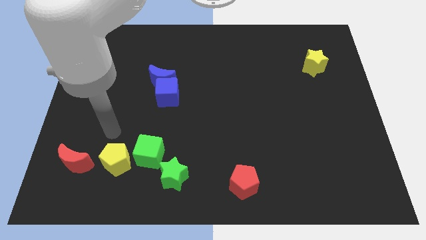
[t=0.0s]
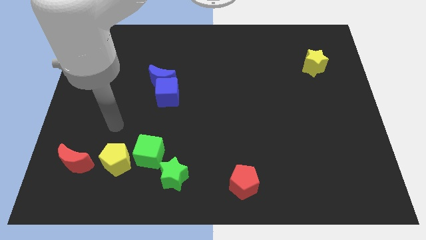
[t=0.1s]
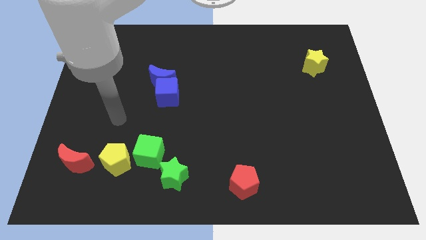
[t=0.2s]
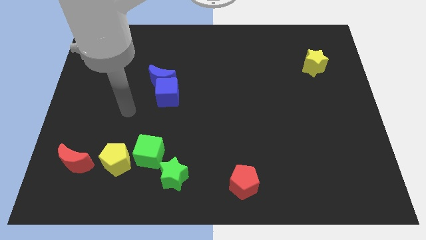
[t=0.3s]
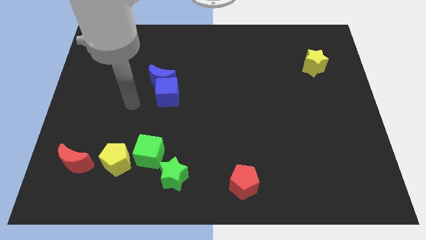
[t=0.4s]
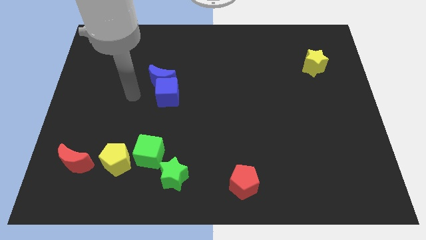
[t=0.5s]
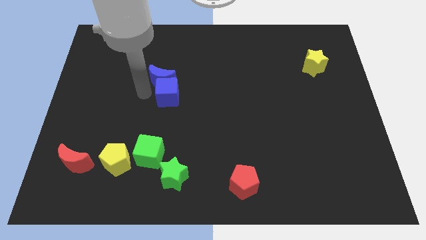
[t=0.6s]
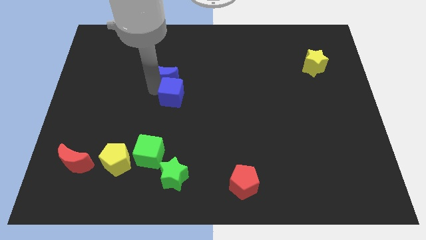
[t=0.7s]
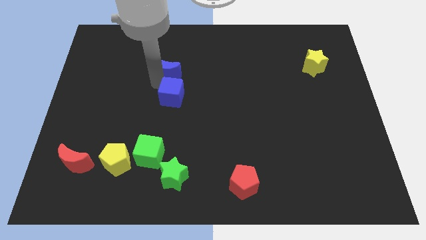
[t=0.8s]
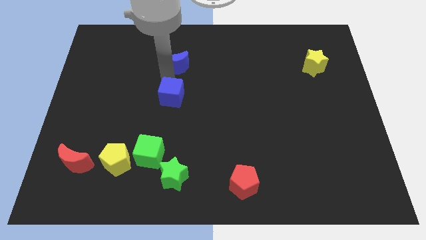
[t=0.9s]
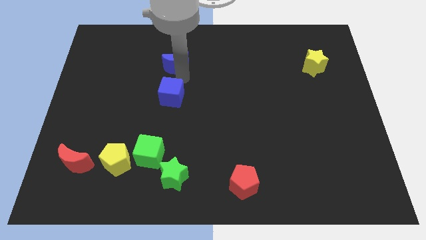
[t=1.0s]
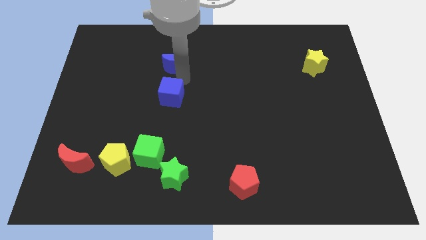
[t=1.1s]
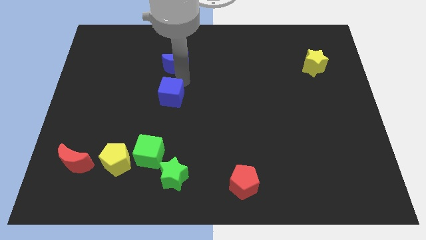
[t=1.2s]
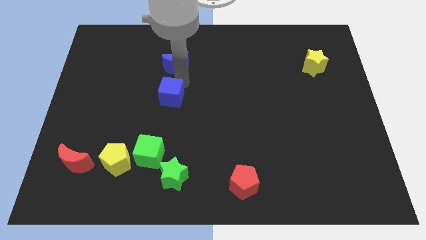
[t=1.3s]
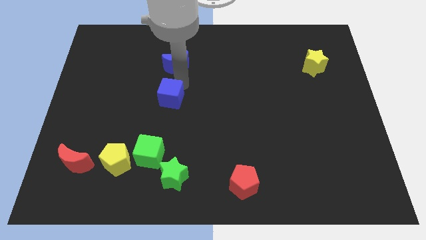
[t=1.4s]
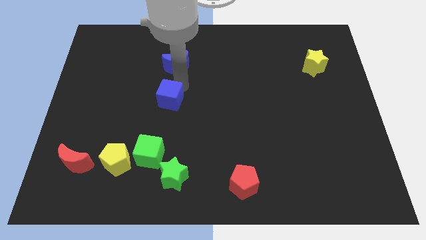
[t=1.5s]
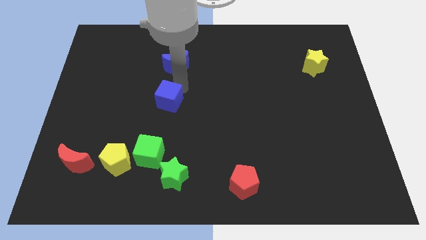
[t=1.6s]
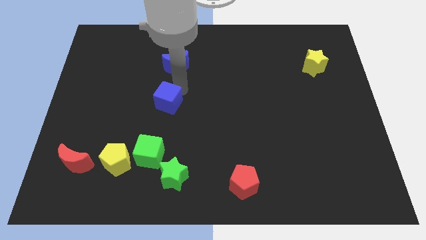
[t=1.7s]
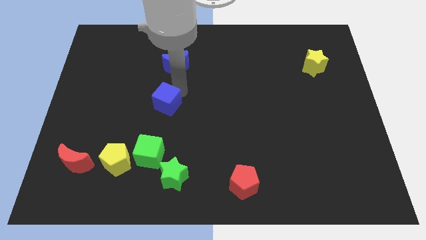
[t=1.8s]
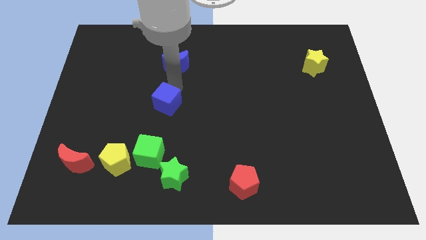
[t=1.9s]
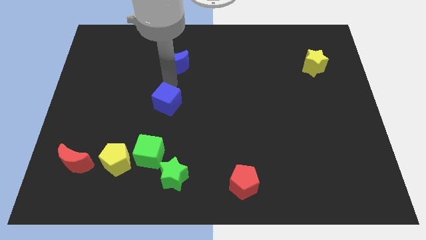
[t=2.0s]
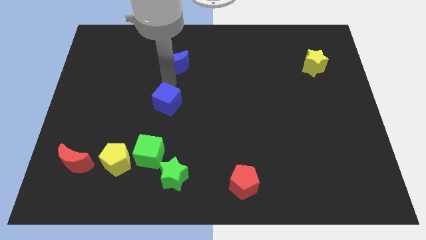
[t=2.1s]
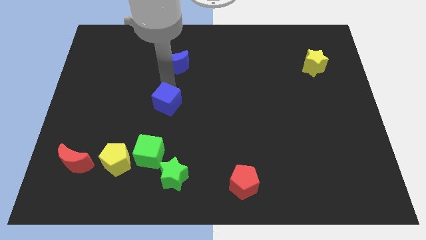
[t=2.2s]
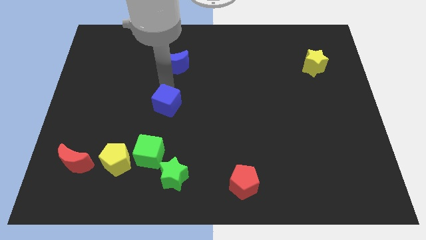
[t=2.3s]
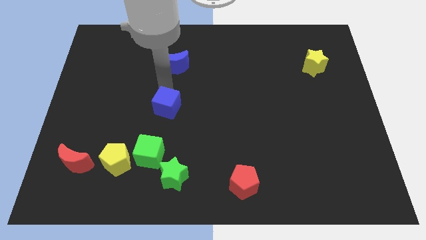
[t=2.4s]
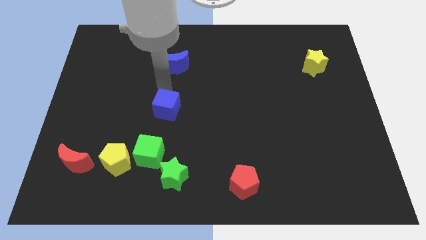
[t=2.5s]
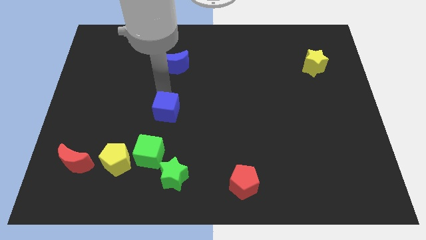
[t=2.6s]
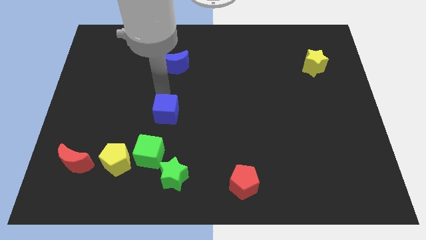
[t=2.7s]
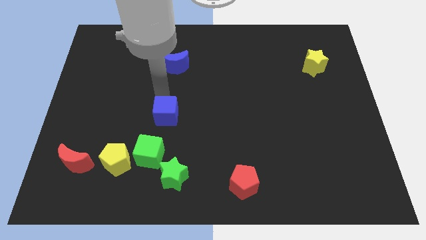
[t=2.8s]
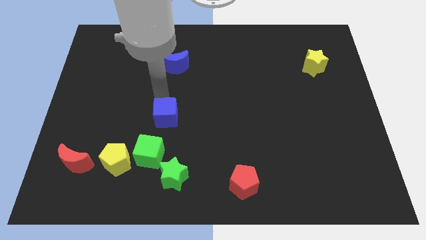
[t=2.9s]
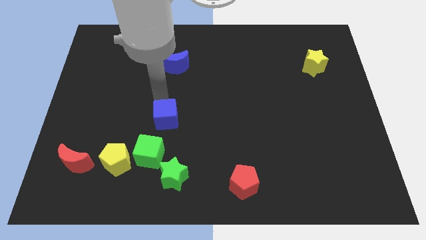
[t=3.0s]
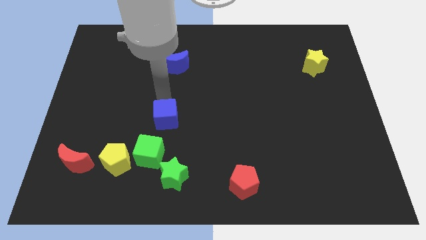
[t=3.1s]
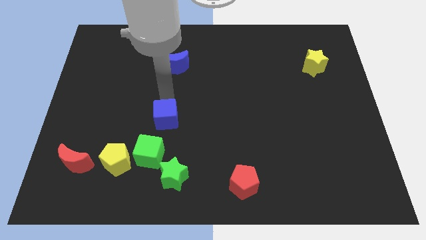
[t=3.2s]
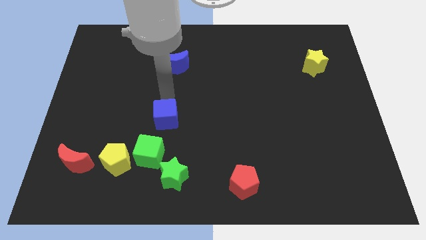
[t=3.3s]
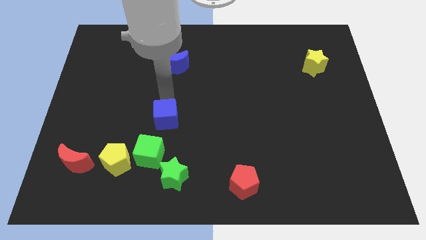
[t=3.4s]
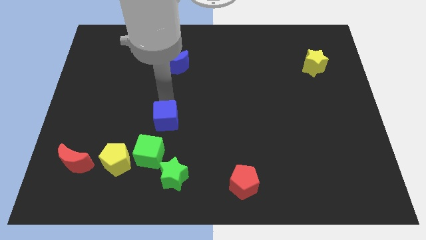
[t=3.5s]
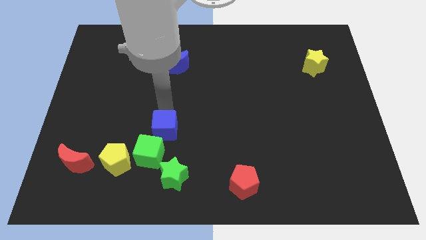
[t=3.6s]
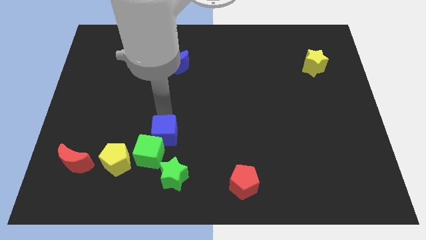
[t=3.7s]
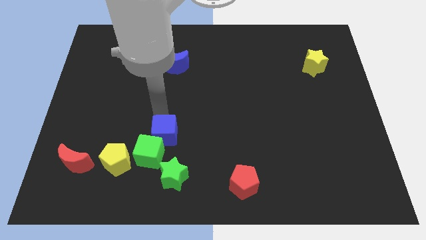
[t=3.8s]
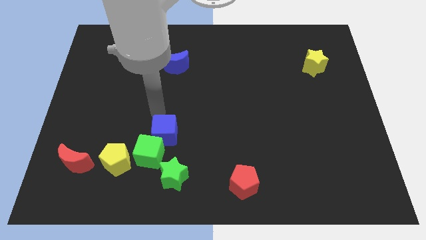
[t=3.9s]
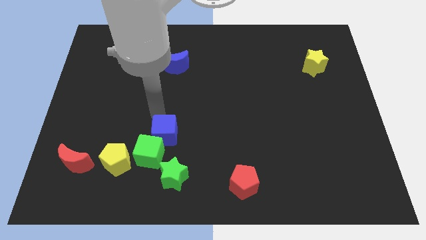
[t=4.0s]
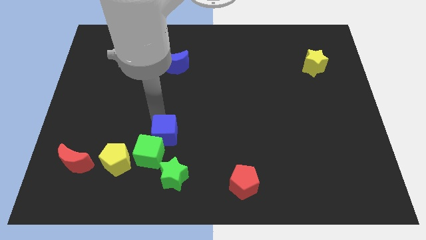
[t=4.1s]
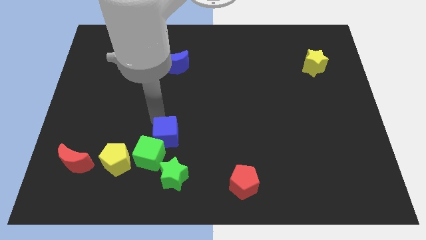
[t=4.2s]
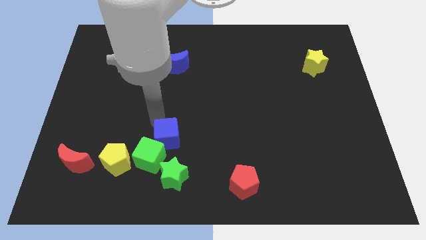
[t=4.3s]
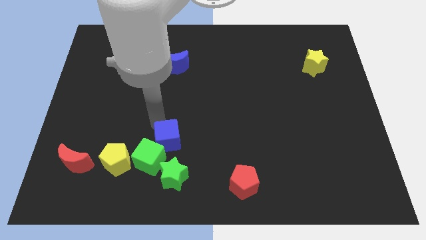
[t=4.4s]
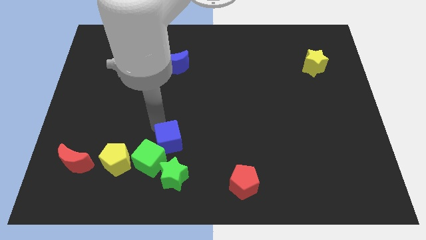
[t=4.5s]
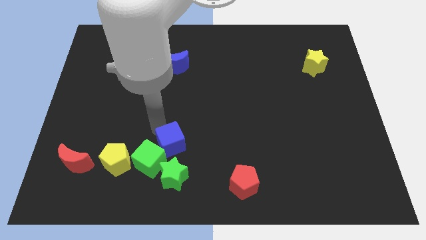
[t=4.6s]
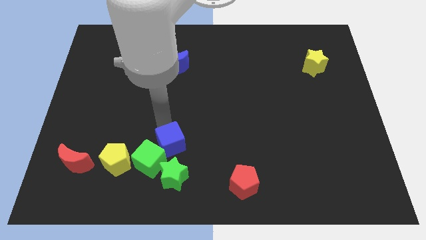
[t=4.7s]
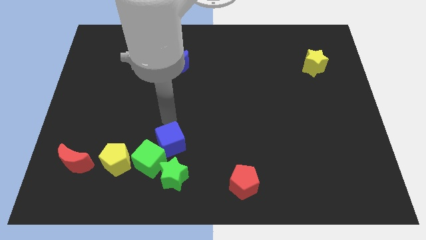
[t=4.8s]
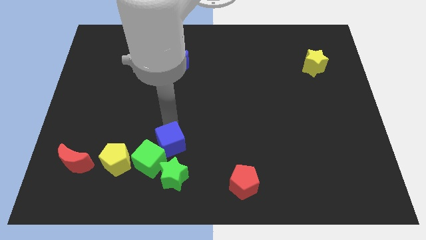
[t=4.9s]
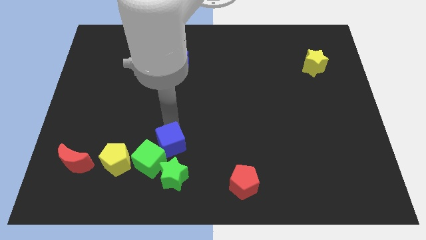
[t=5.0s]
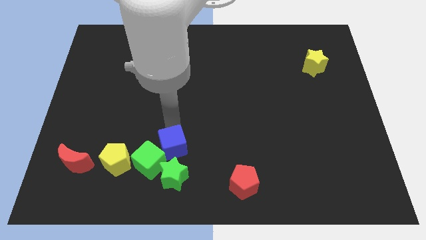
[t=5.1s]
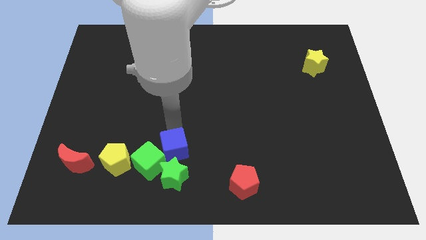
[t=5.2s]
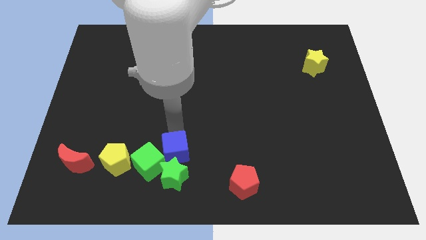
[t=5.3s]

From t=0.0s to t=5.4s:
put the blue cube towards the green star

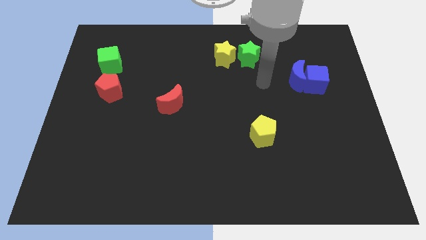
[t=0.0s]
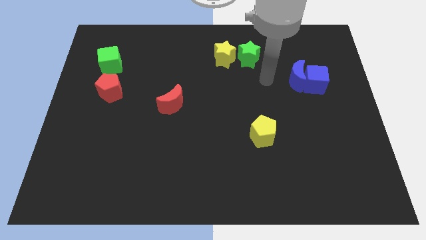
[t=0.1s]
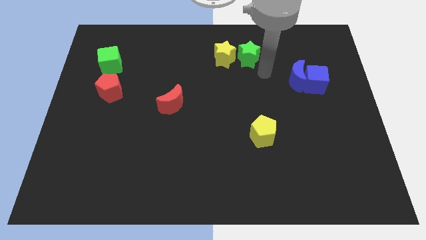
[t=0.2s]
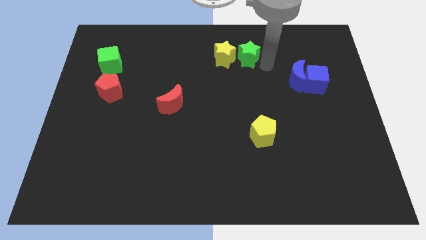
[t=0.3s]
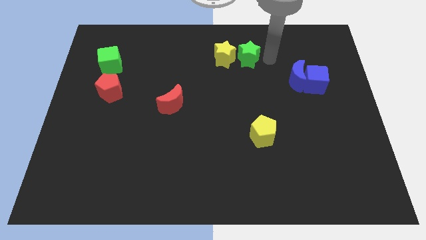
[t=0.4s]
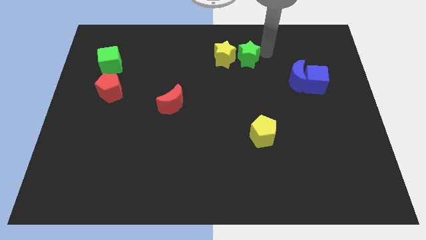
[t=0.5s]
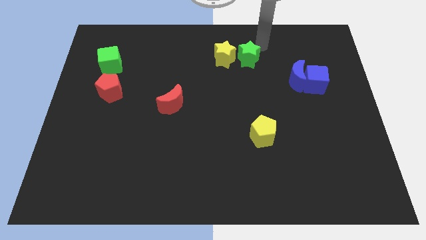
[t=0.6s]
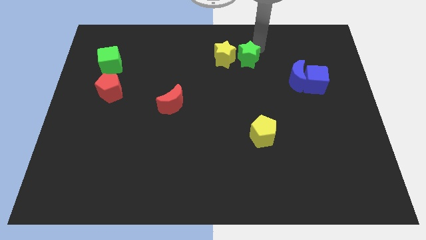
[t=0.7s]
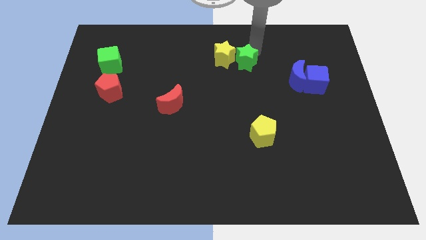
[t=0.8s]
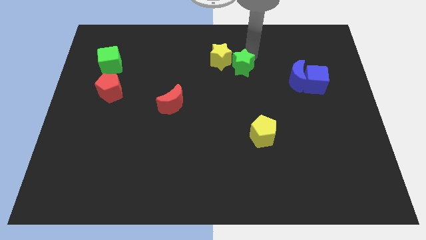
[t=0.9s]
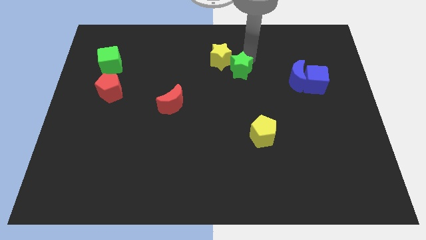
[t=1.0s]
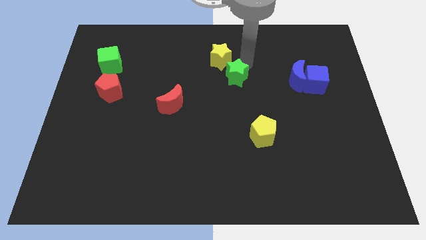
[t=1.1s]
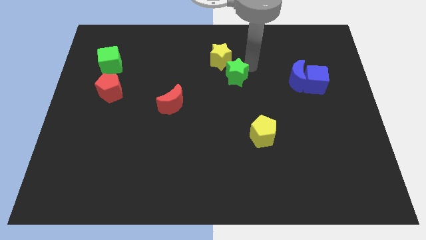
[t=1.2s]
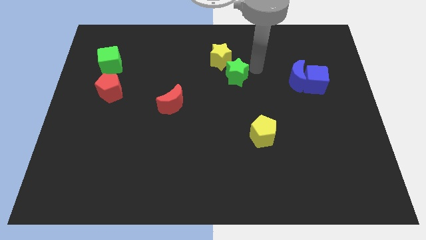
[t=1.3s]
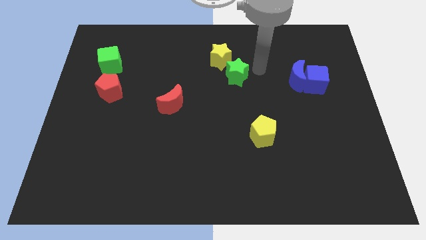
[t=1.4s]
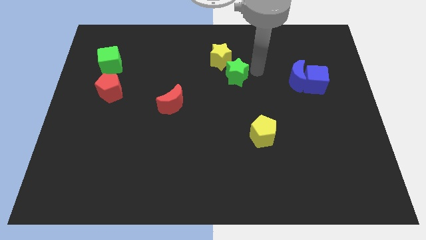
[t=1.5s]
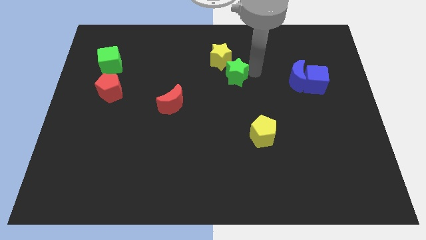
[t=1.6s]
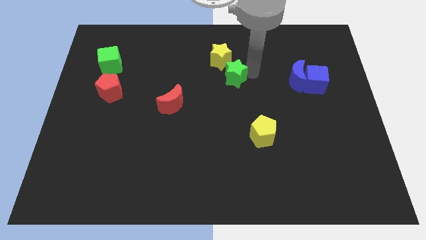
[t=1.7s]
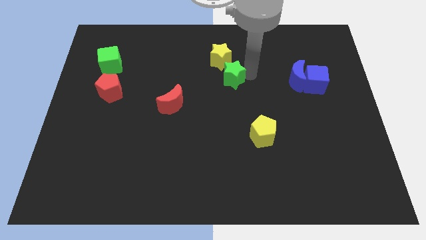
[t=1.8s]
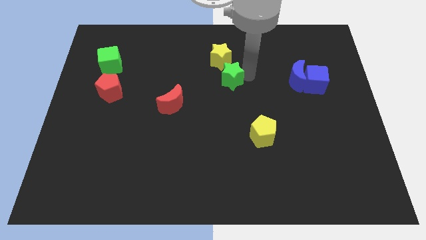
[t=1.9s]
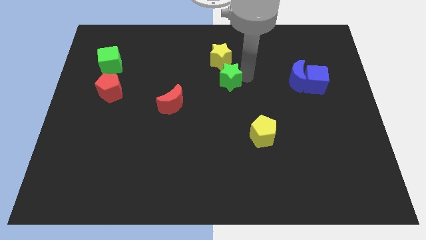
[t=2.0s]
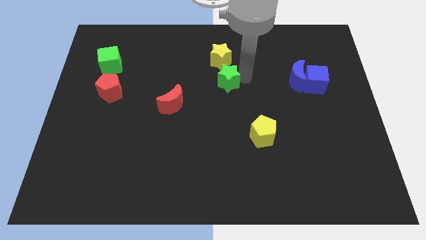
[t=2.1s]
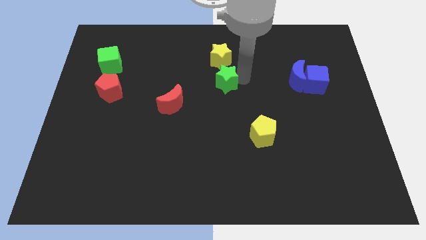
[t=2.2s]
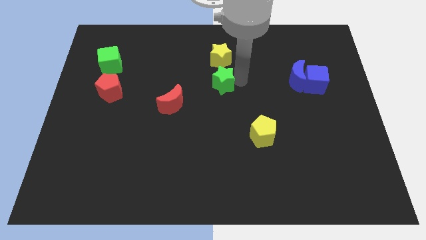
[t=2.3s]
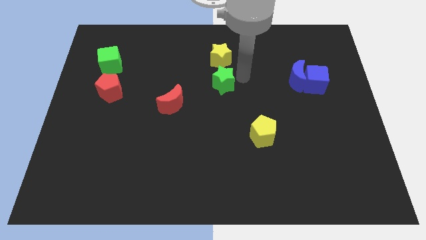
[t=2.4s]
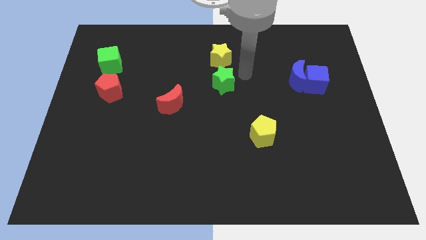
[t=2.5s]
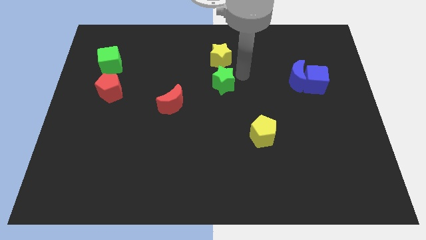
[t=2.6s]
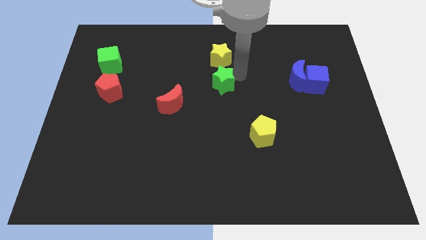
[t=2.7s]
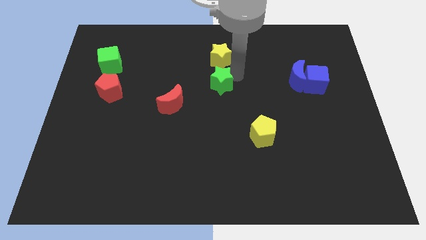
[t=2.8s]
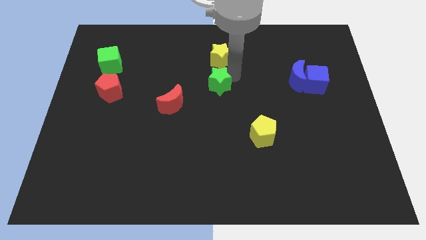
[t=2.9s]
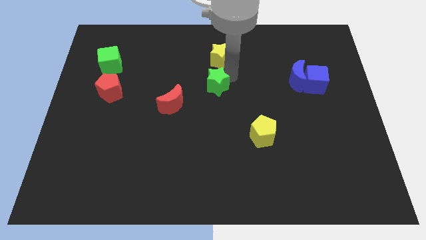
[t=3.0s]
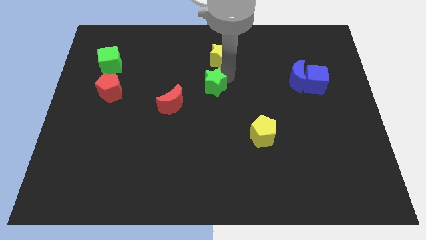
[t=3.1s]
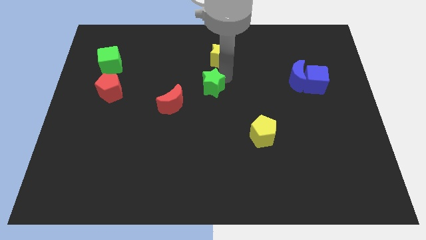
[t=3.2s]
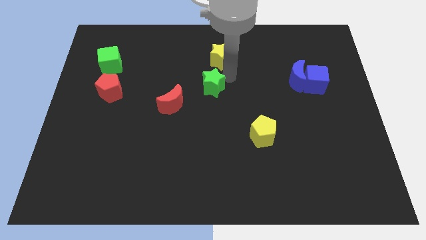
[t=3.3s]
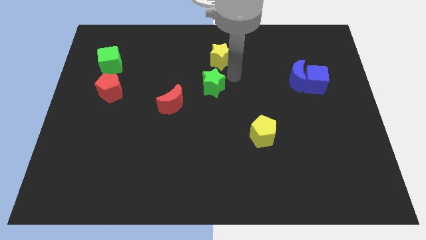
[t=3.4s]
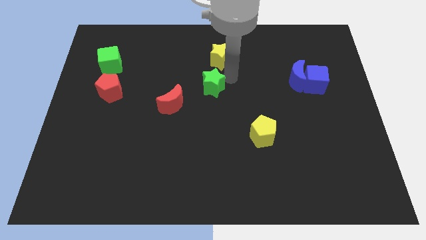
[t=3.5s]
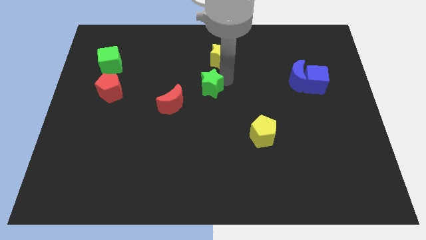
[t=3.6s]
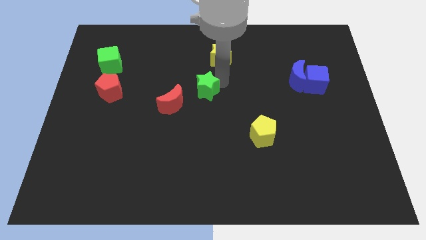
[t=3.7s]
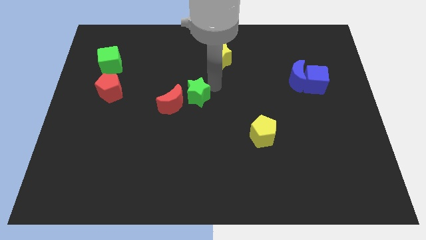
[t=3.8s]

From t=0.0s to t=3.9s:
move the green star to the red moon
